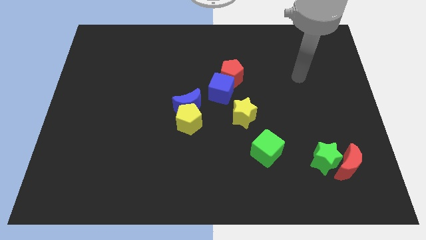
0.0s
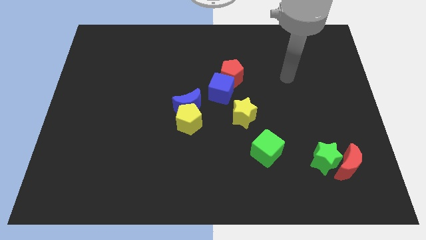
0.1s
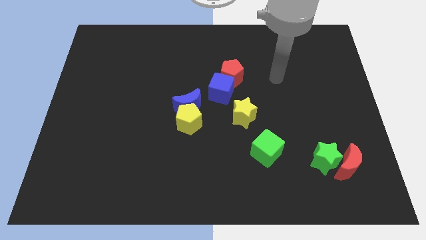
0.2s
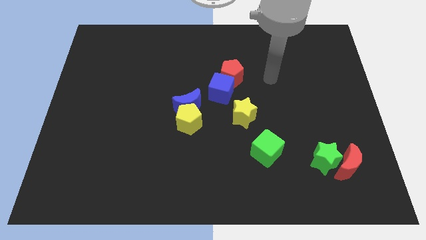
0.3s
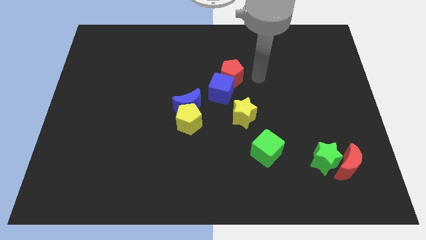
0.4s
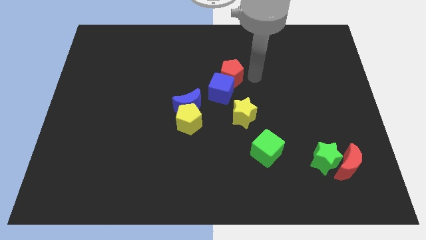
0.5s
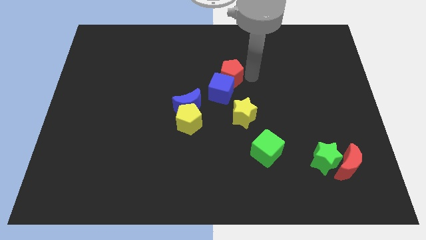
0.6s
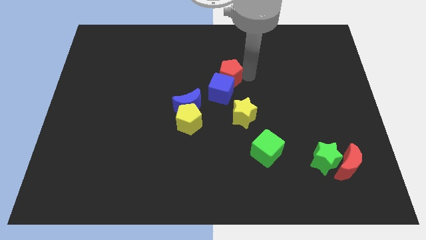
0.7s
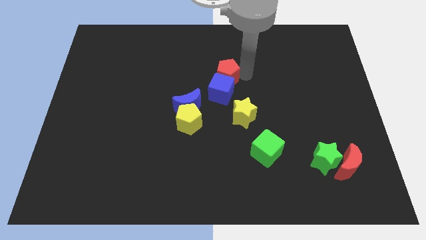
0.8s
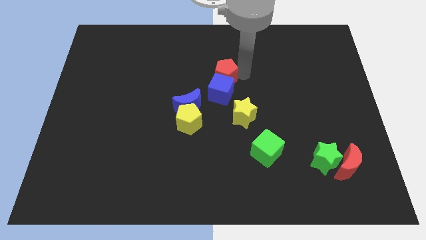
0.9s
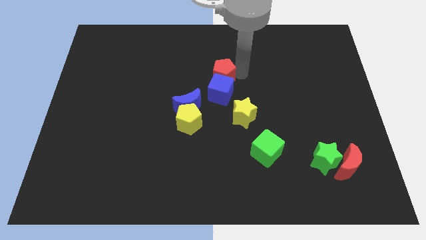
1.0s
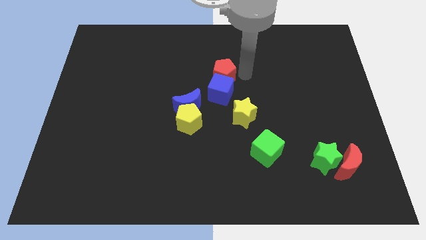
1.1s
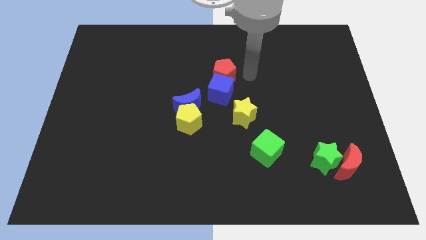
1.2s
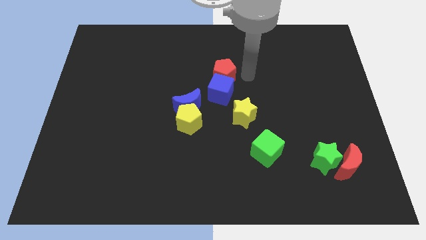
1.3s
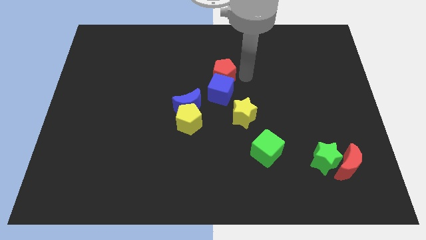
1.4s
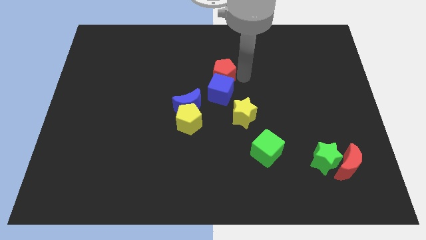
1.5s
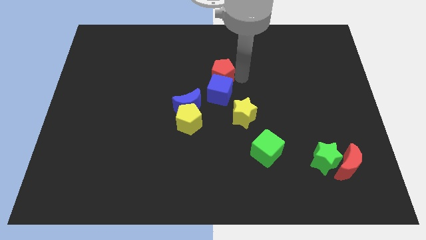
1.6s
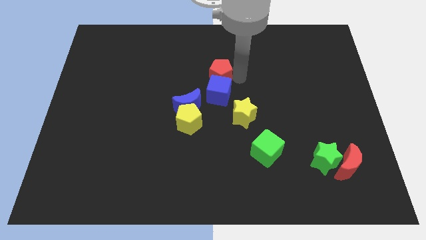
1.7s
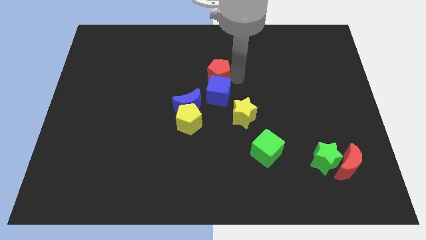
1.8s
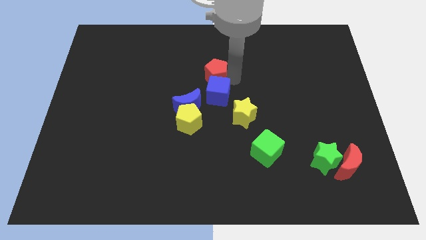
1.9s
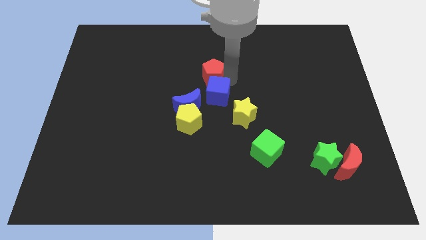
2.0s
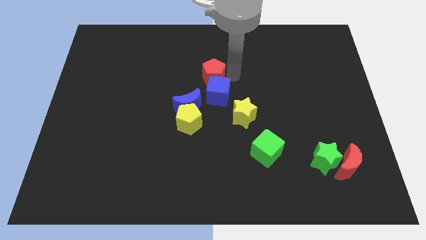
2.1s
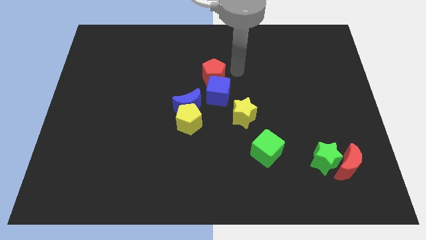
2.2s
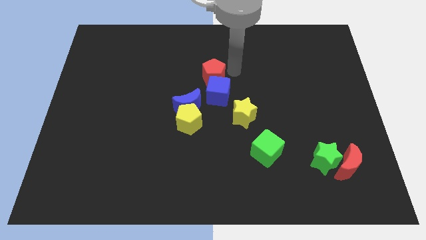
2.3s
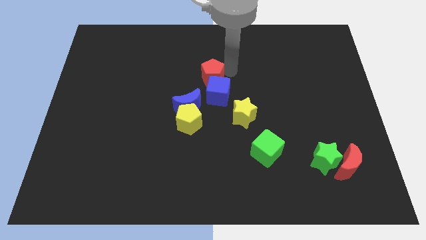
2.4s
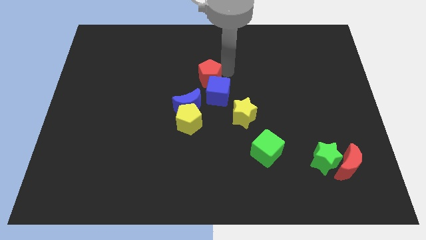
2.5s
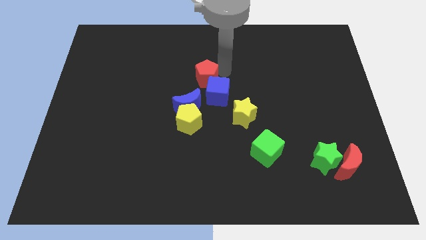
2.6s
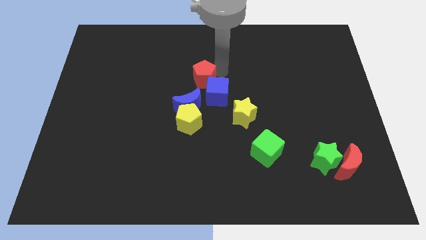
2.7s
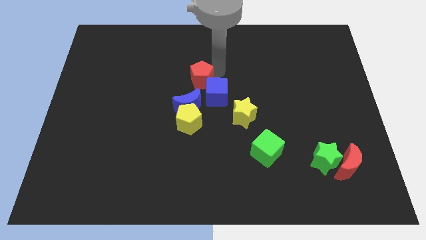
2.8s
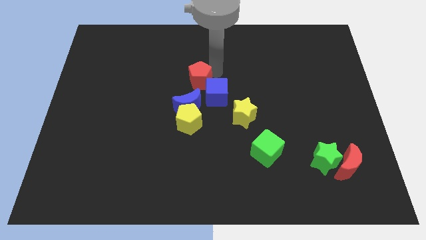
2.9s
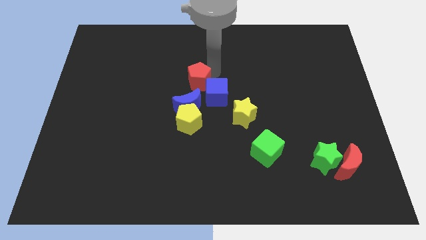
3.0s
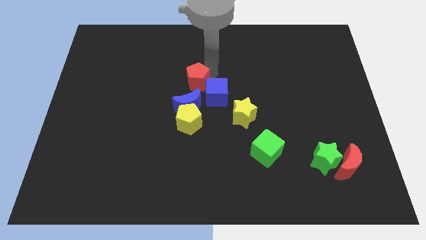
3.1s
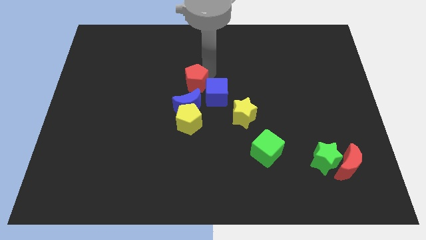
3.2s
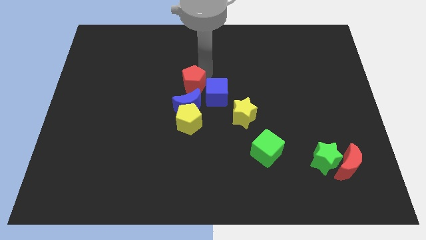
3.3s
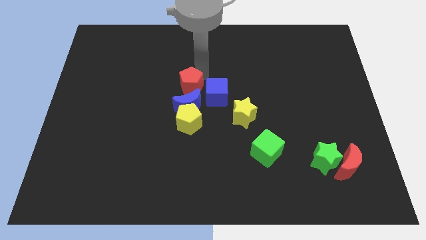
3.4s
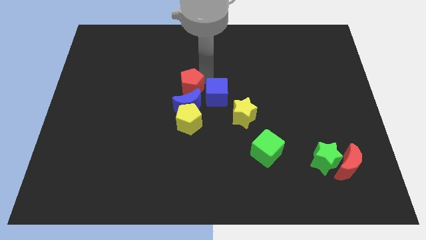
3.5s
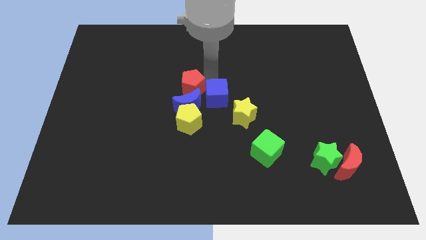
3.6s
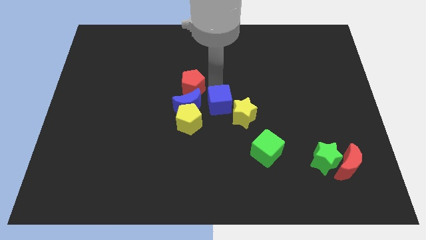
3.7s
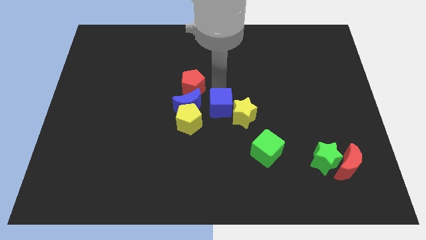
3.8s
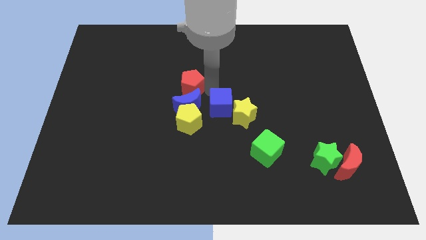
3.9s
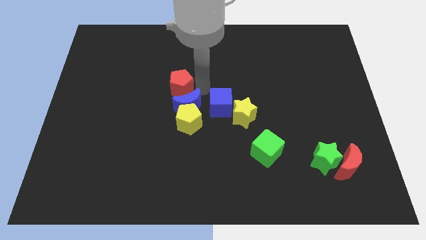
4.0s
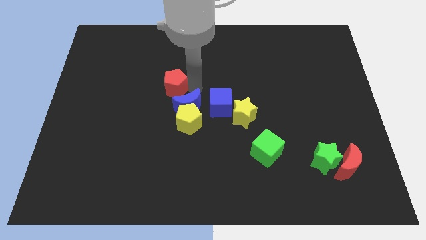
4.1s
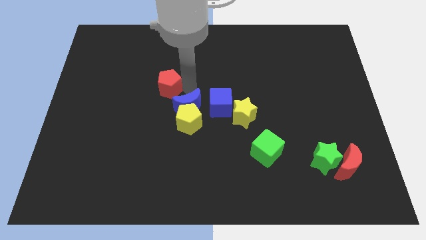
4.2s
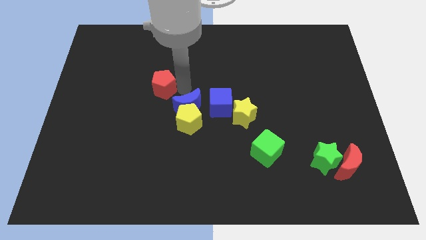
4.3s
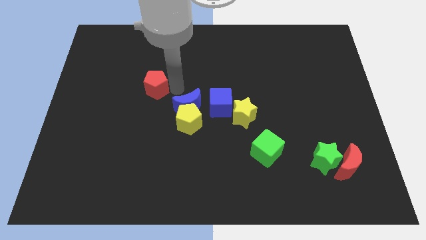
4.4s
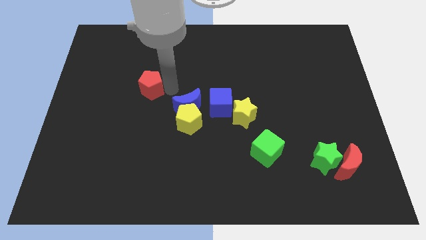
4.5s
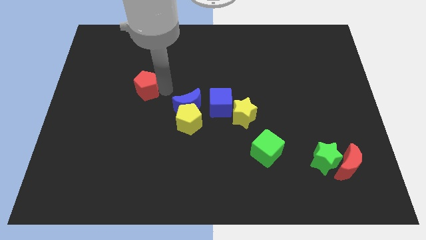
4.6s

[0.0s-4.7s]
slide the red pentagon left

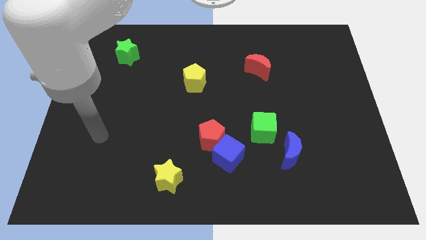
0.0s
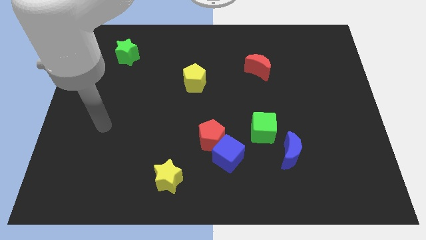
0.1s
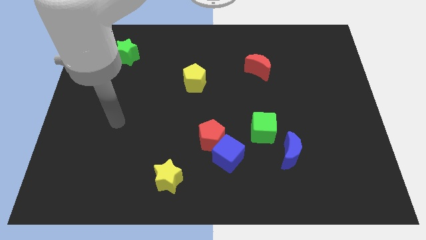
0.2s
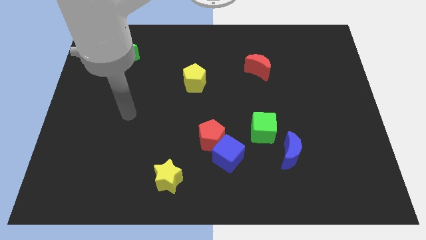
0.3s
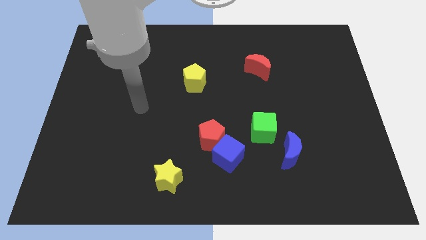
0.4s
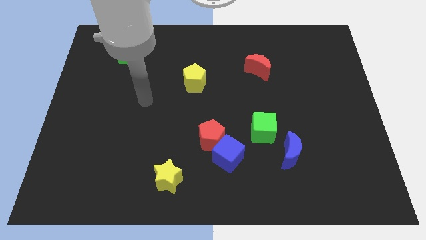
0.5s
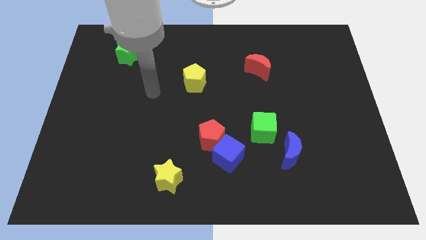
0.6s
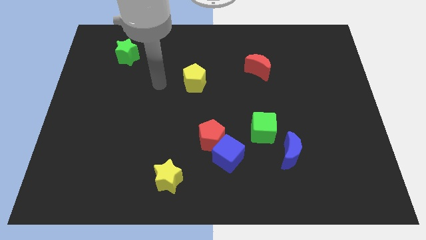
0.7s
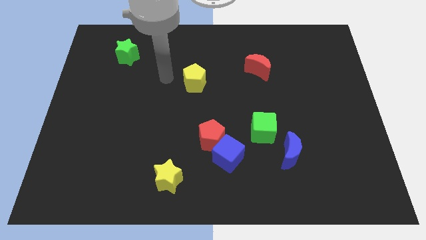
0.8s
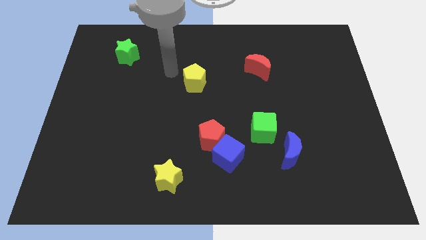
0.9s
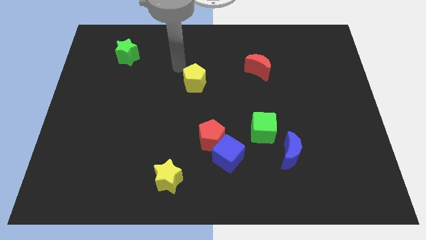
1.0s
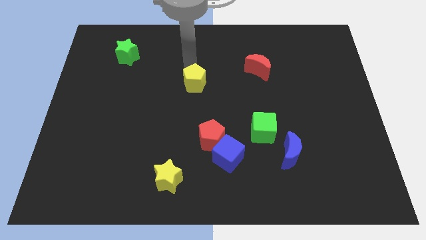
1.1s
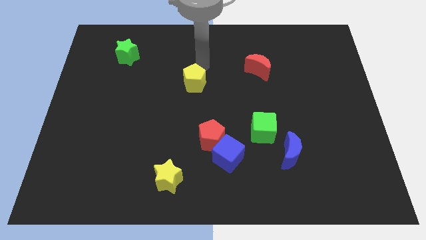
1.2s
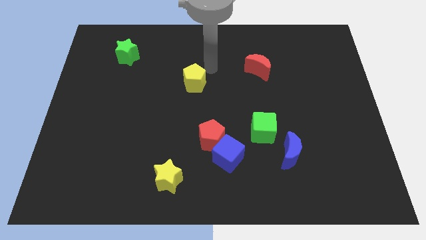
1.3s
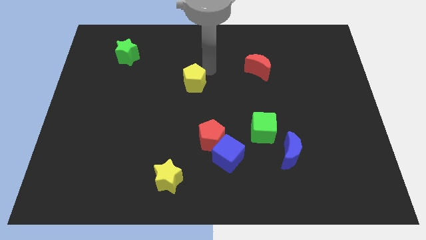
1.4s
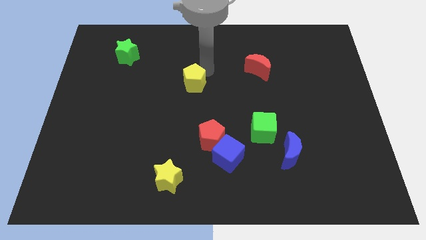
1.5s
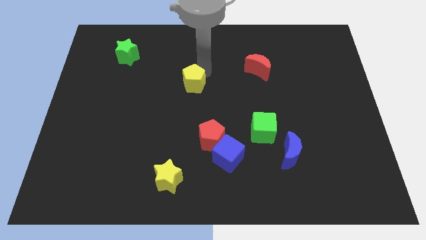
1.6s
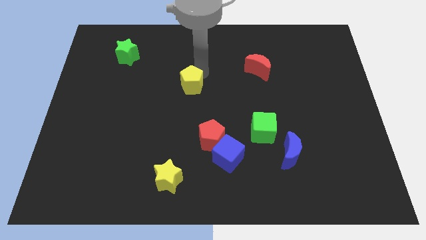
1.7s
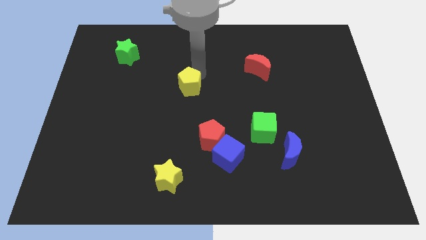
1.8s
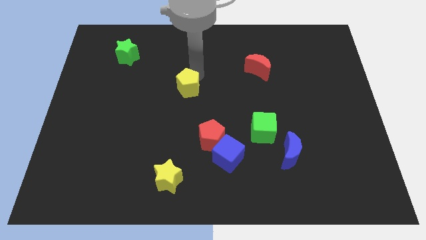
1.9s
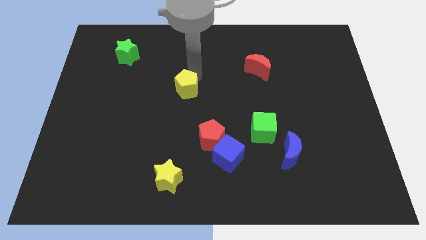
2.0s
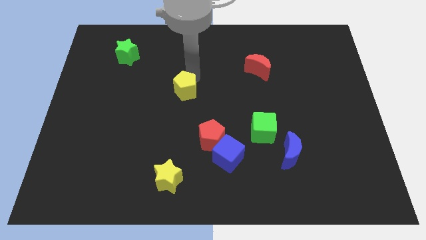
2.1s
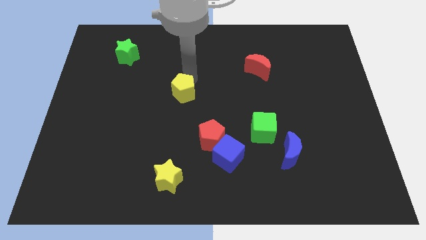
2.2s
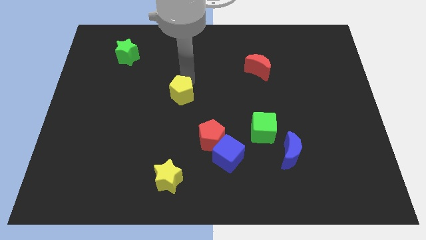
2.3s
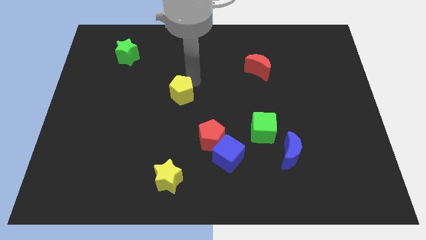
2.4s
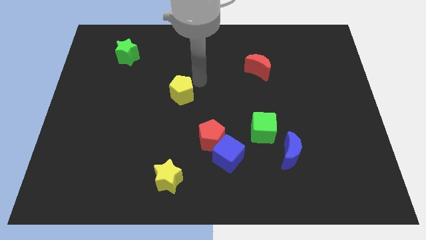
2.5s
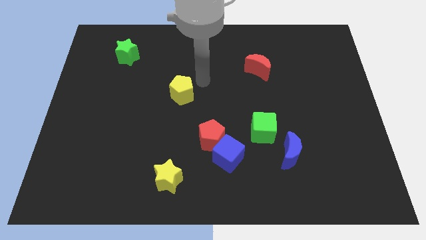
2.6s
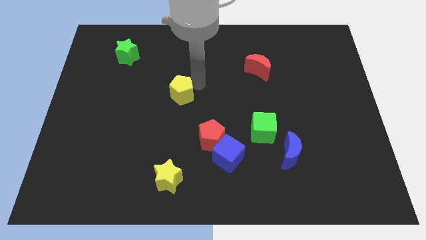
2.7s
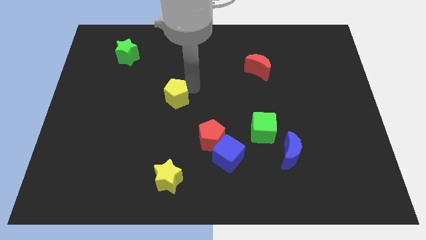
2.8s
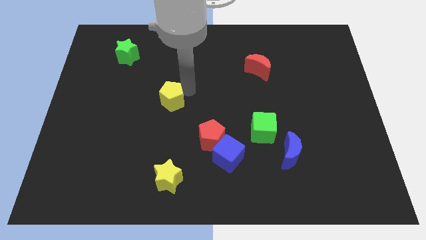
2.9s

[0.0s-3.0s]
push the yellow pentagon diagonally down and to the left a bit

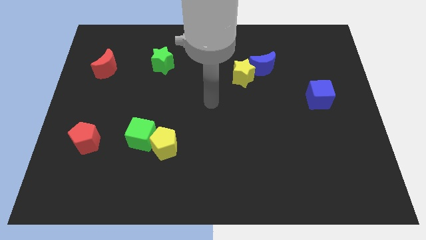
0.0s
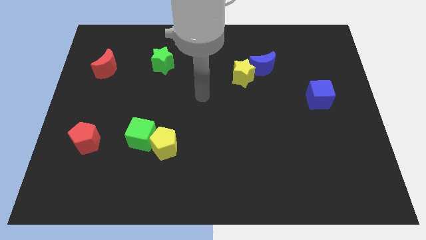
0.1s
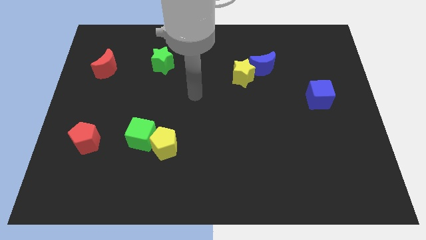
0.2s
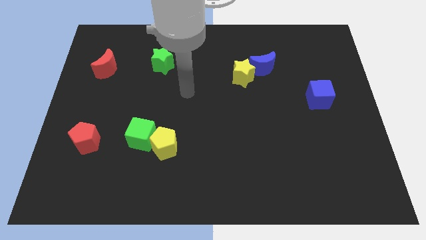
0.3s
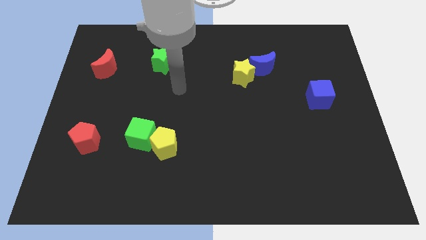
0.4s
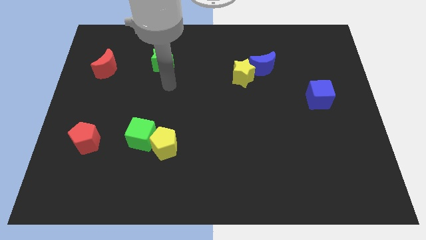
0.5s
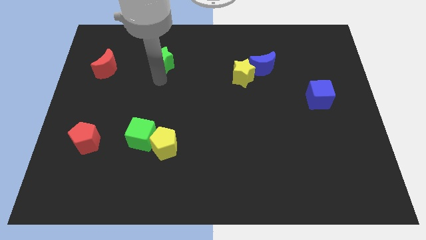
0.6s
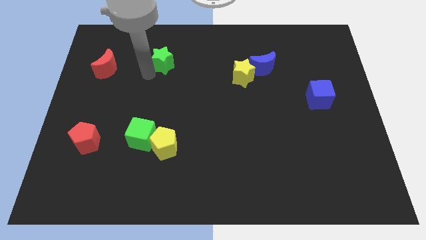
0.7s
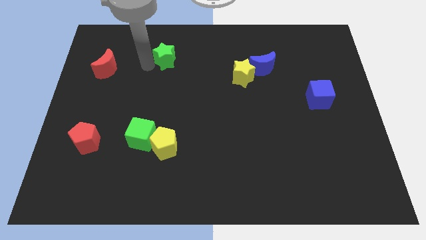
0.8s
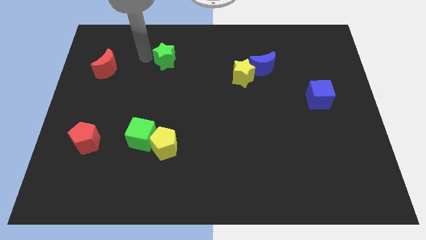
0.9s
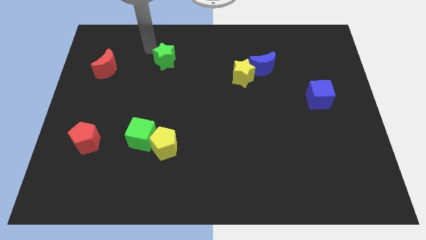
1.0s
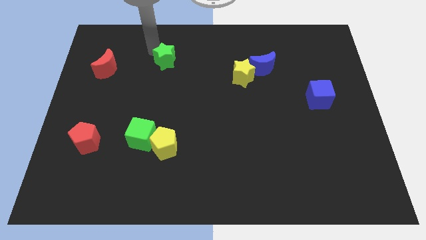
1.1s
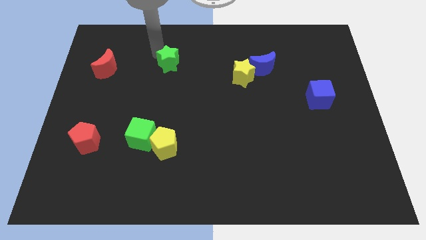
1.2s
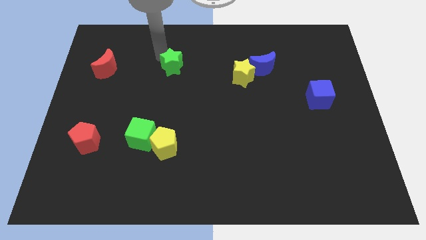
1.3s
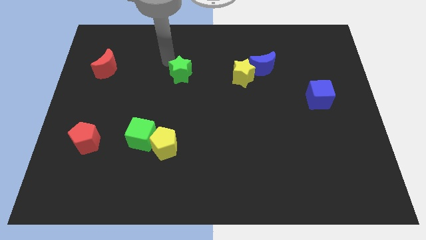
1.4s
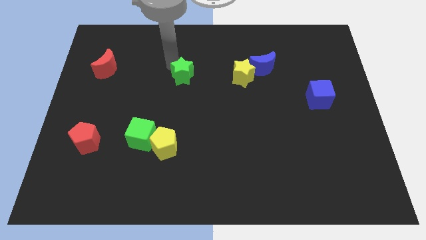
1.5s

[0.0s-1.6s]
slightly slide the green star diagonally downwards and to the right
